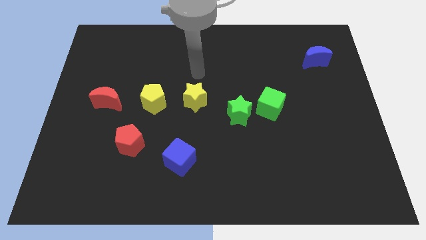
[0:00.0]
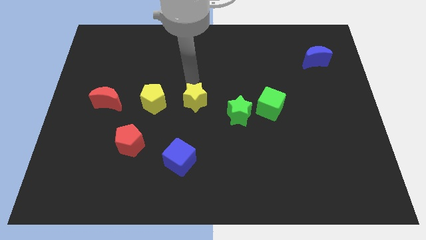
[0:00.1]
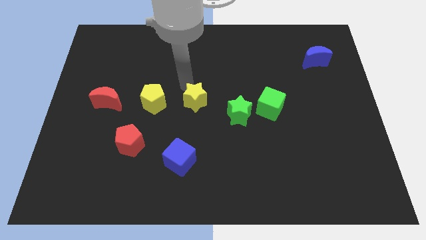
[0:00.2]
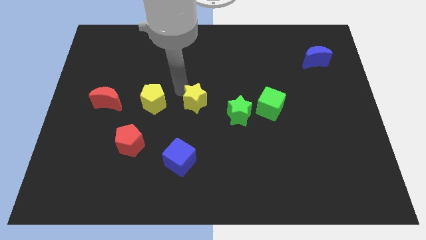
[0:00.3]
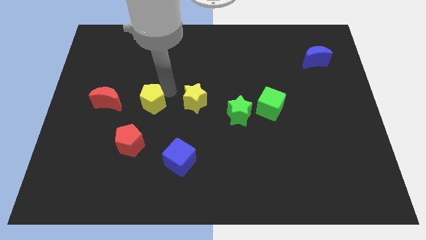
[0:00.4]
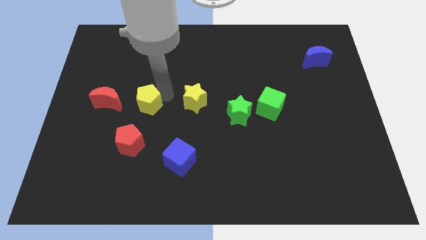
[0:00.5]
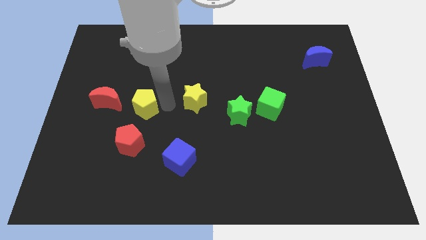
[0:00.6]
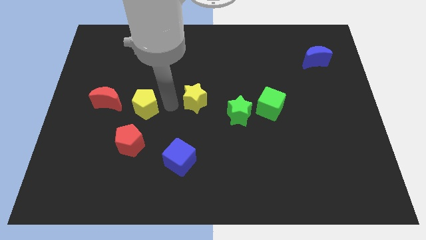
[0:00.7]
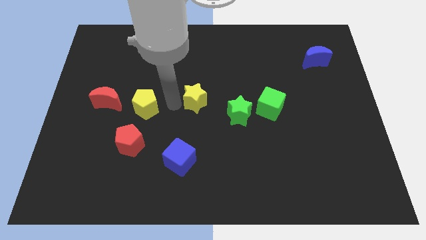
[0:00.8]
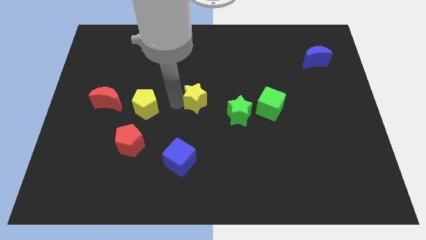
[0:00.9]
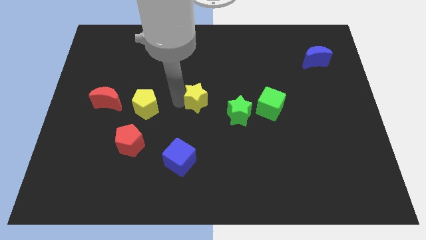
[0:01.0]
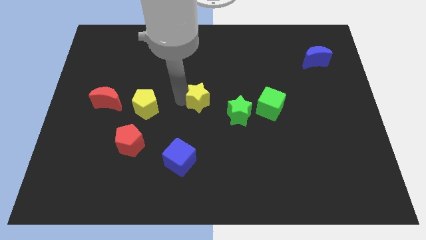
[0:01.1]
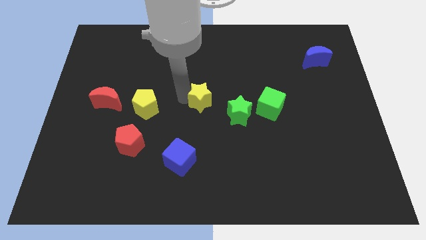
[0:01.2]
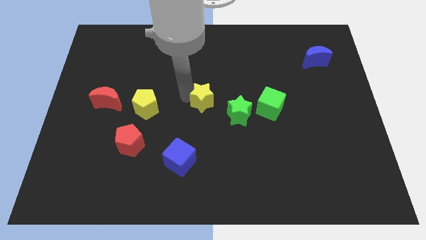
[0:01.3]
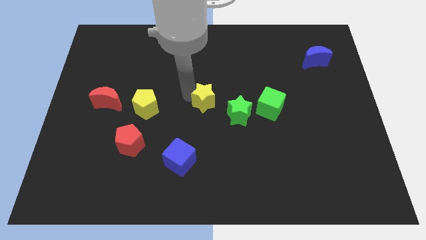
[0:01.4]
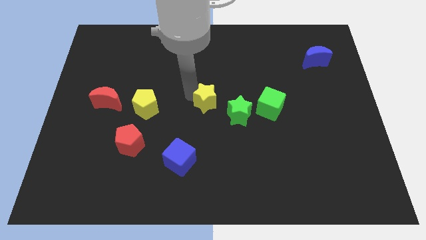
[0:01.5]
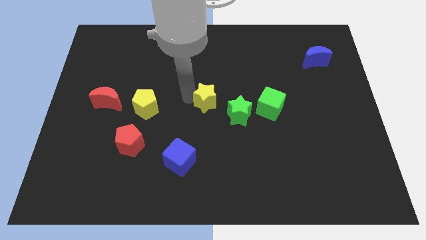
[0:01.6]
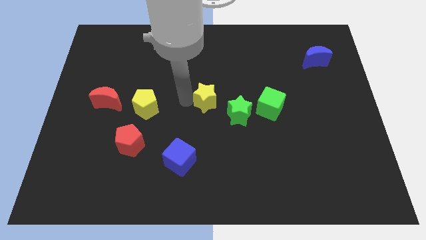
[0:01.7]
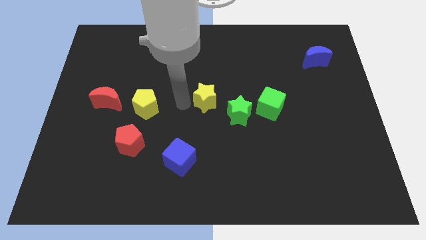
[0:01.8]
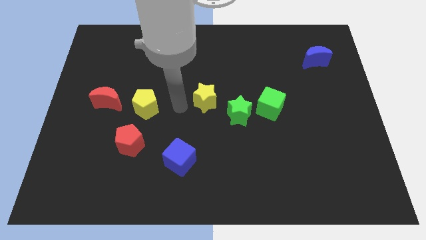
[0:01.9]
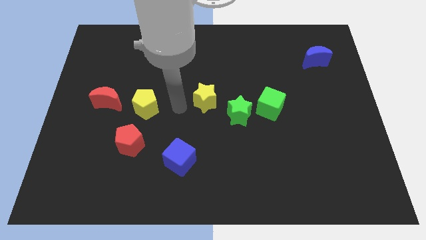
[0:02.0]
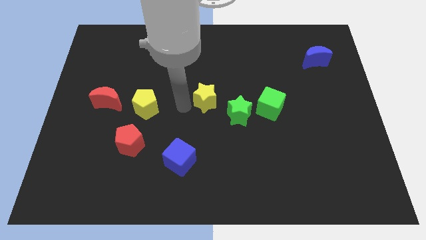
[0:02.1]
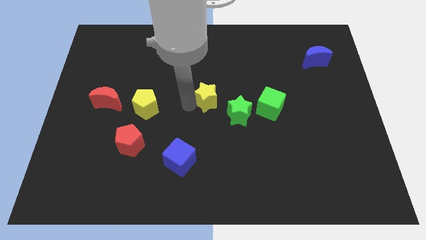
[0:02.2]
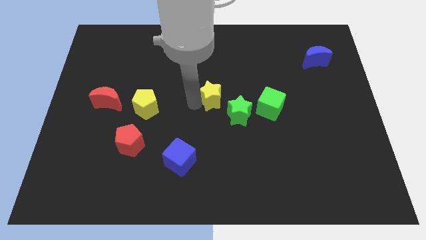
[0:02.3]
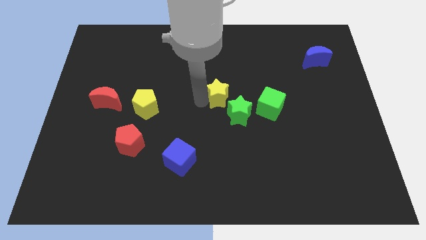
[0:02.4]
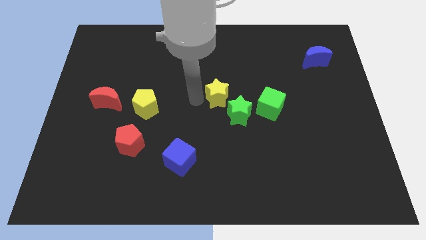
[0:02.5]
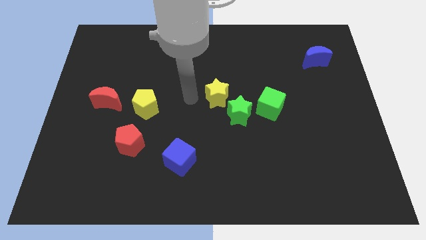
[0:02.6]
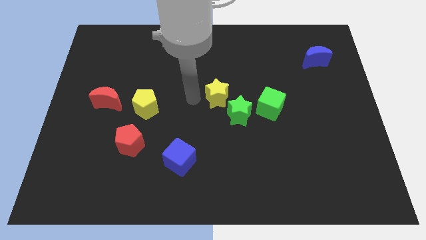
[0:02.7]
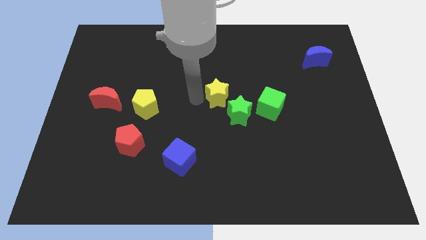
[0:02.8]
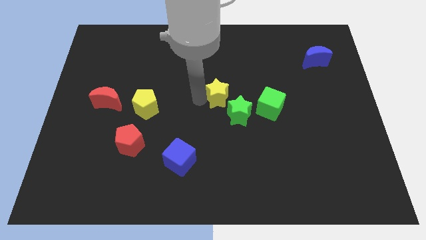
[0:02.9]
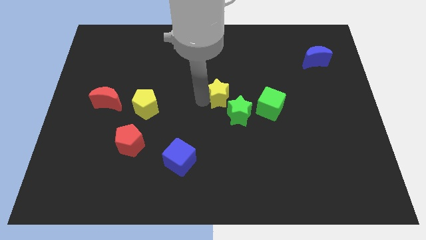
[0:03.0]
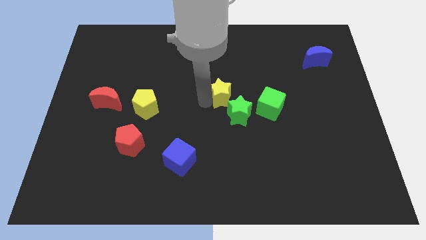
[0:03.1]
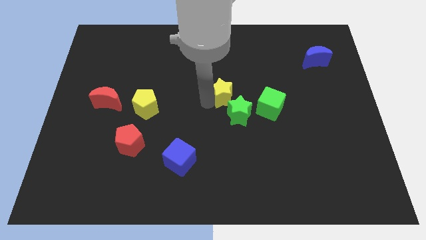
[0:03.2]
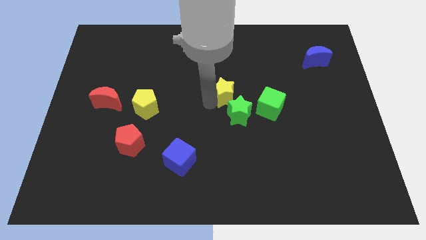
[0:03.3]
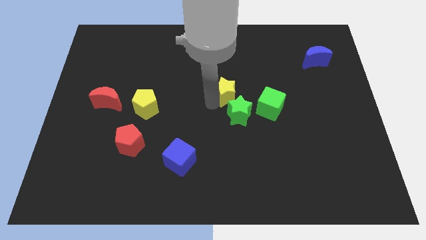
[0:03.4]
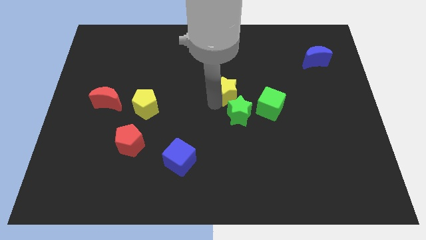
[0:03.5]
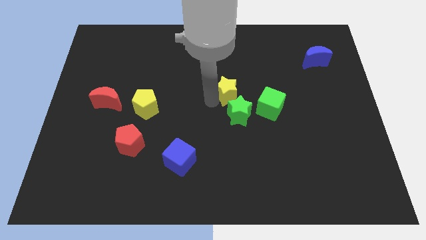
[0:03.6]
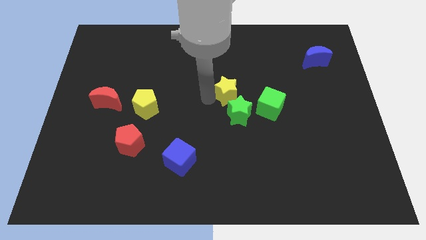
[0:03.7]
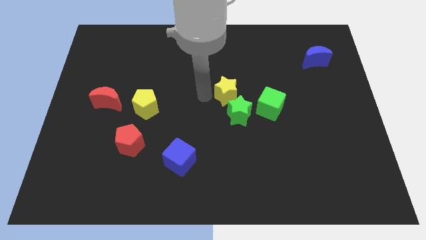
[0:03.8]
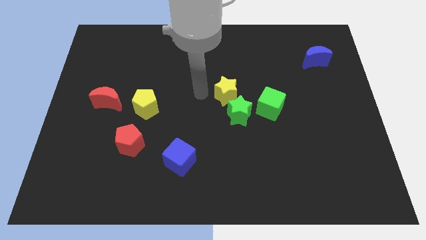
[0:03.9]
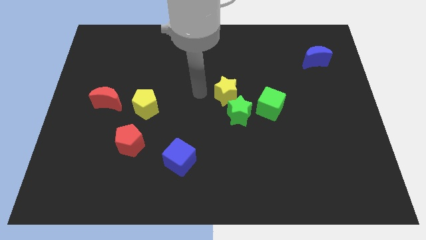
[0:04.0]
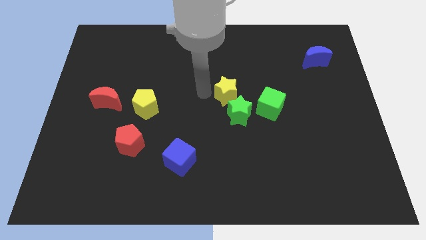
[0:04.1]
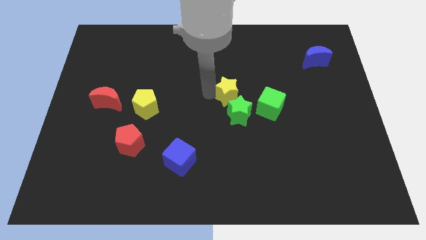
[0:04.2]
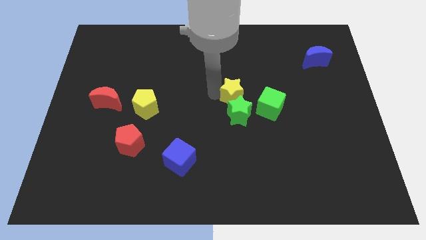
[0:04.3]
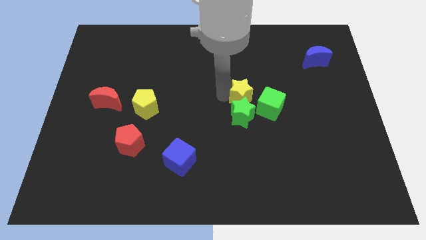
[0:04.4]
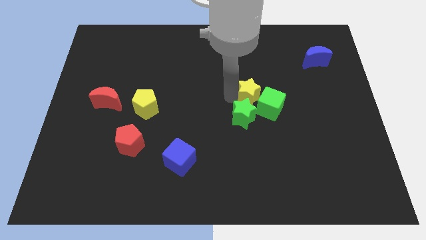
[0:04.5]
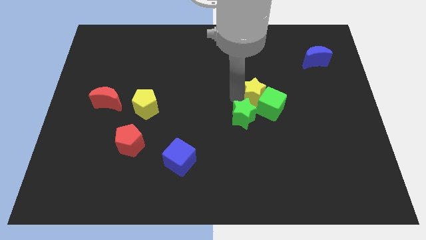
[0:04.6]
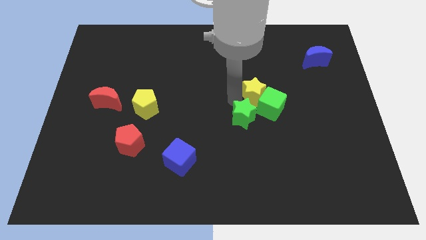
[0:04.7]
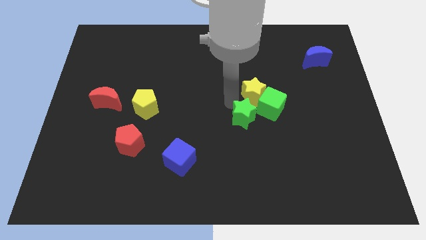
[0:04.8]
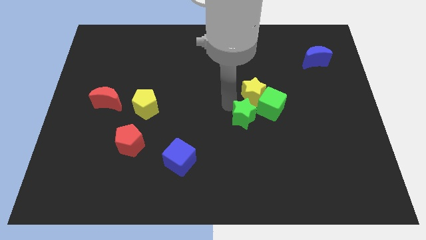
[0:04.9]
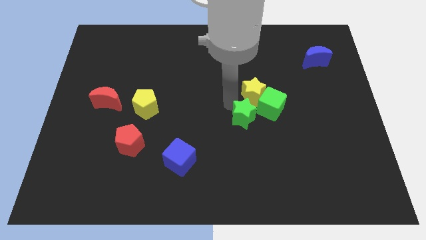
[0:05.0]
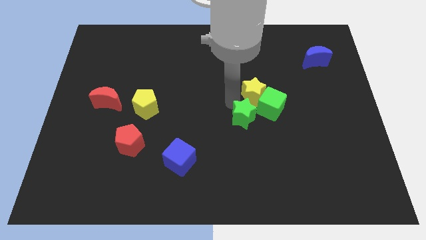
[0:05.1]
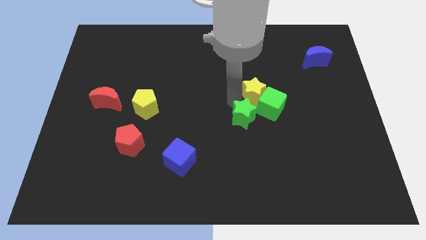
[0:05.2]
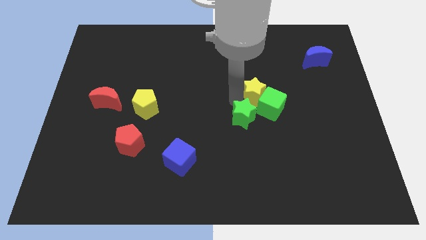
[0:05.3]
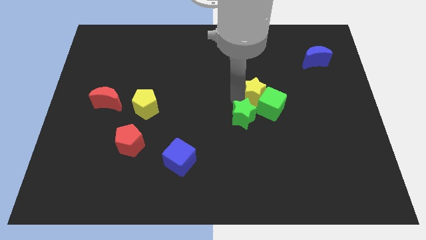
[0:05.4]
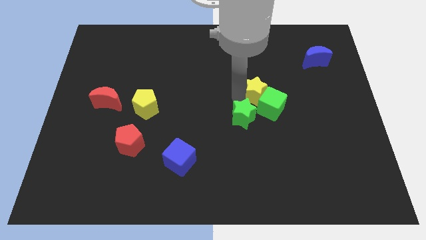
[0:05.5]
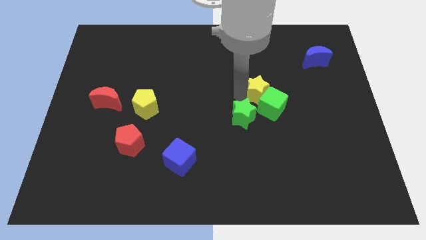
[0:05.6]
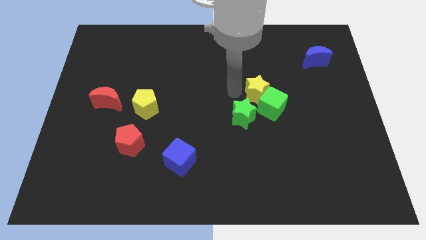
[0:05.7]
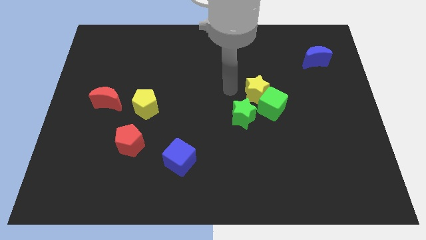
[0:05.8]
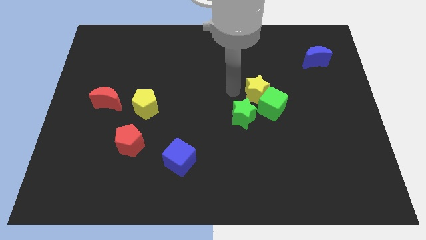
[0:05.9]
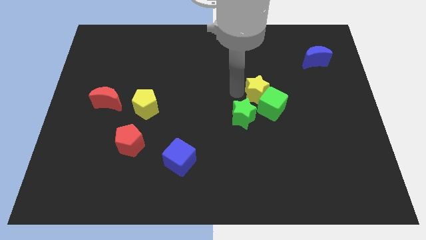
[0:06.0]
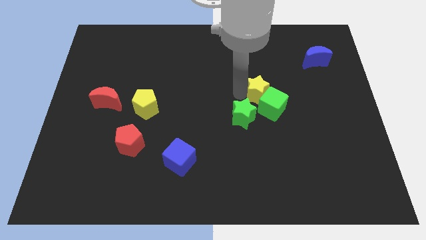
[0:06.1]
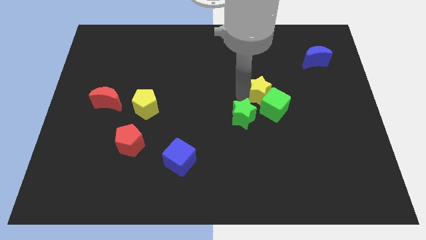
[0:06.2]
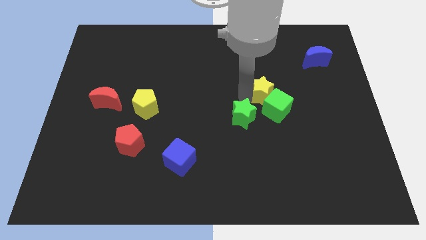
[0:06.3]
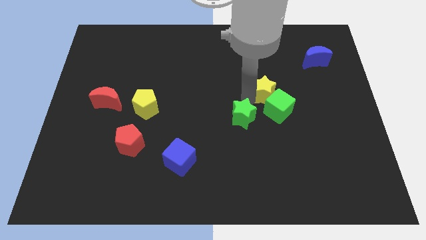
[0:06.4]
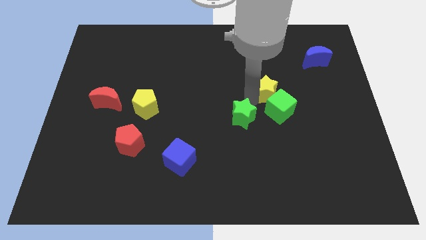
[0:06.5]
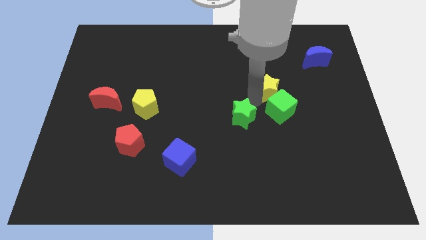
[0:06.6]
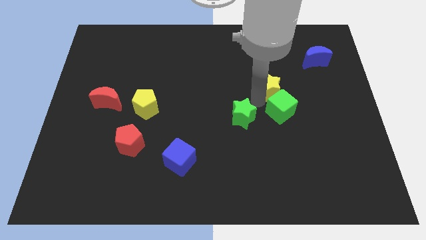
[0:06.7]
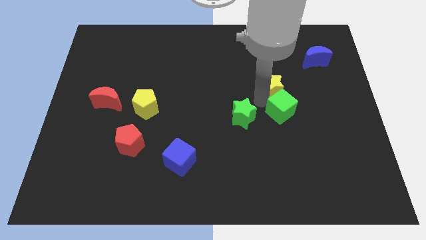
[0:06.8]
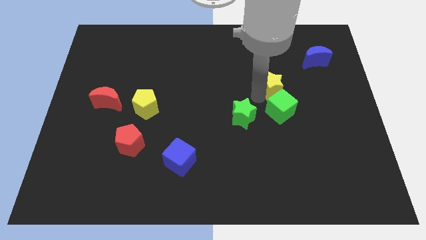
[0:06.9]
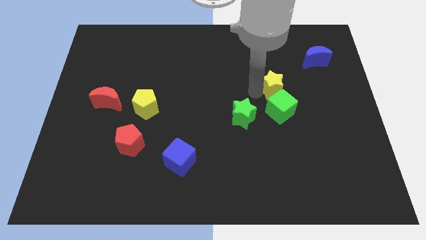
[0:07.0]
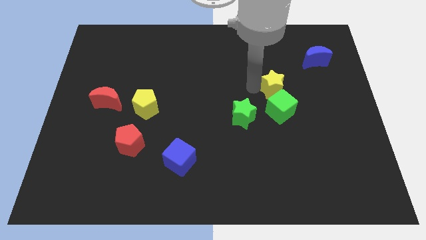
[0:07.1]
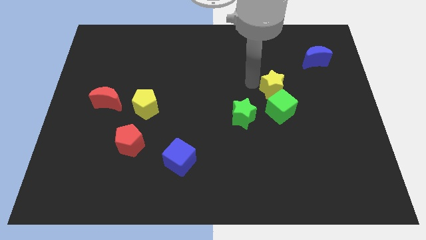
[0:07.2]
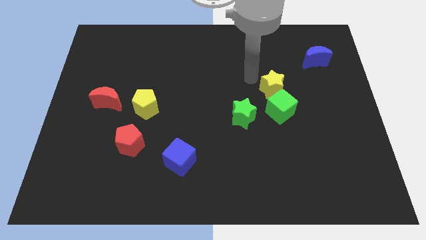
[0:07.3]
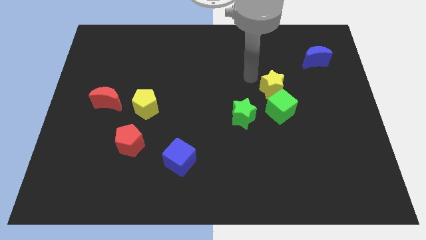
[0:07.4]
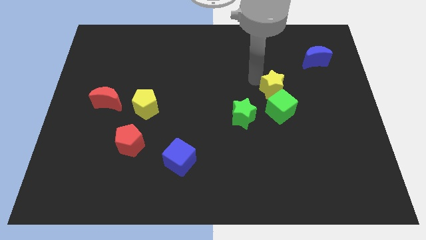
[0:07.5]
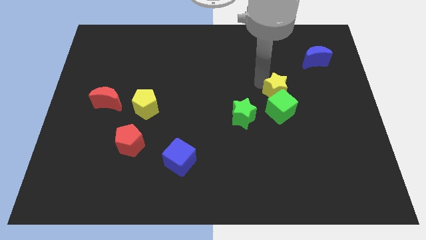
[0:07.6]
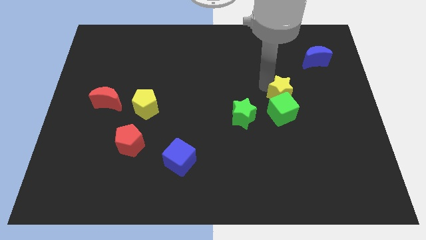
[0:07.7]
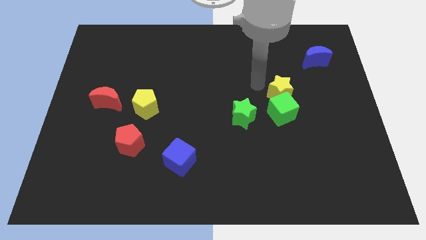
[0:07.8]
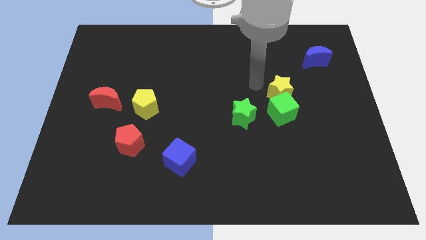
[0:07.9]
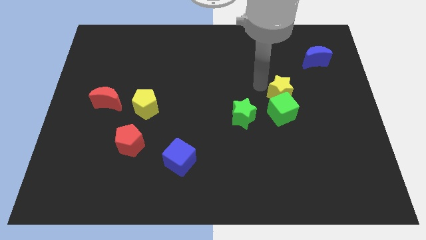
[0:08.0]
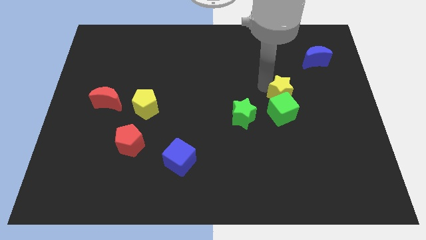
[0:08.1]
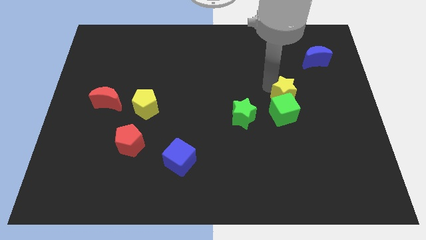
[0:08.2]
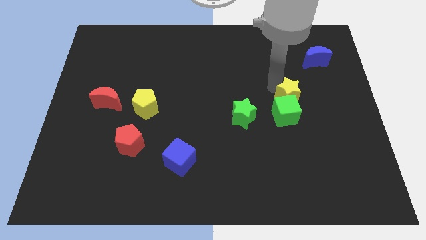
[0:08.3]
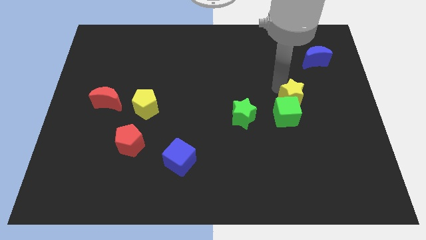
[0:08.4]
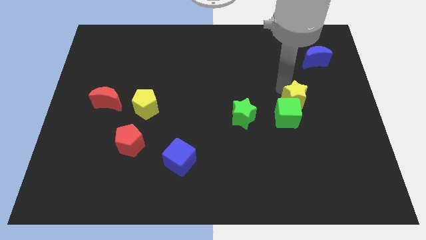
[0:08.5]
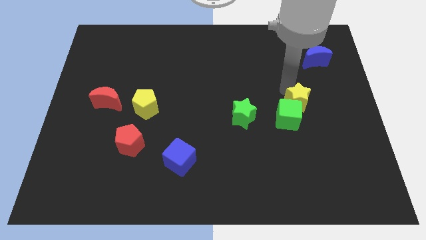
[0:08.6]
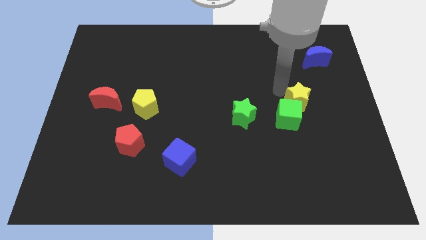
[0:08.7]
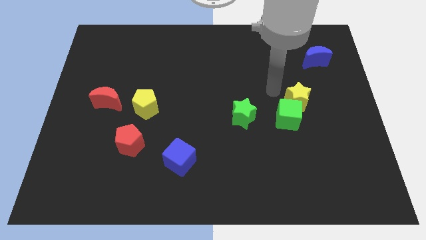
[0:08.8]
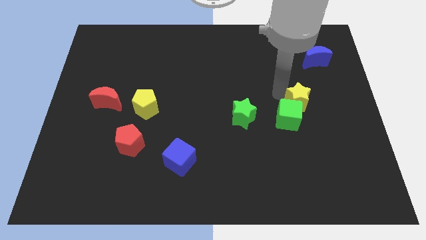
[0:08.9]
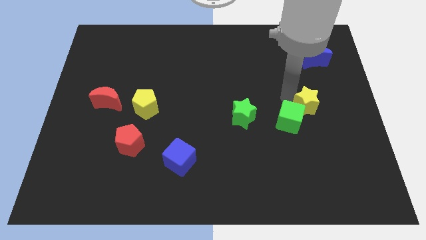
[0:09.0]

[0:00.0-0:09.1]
push the yellow star just right of the green cube
